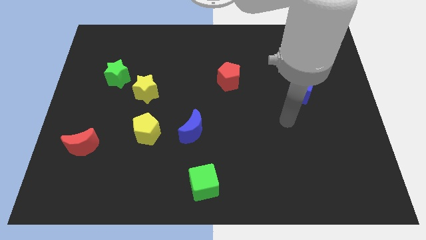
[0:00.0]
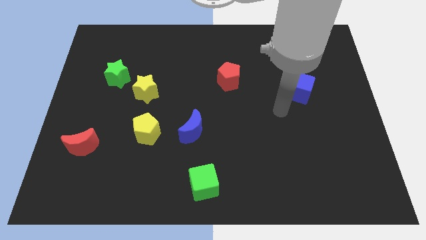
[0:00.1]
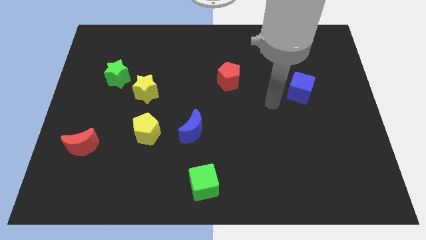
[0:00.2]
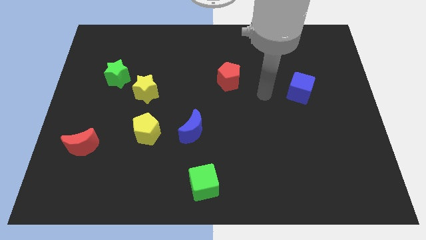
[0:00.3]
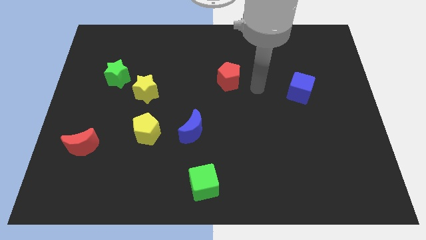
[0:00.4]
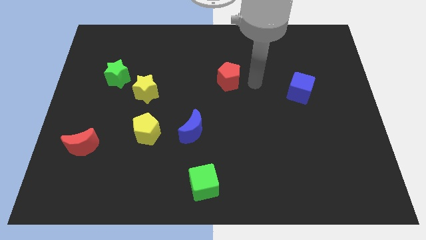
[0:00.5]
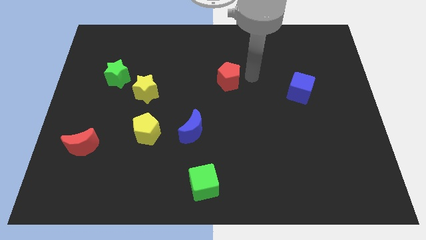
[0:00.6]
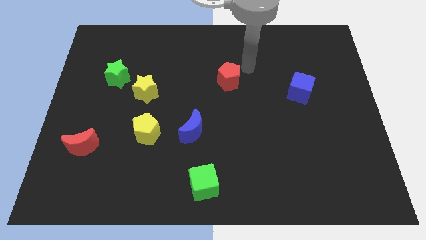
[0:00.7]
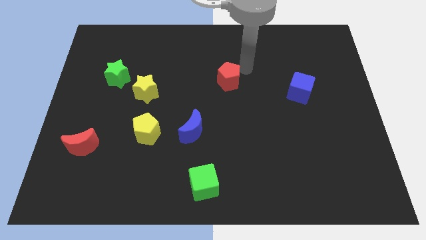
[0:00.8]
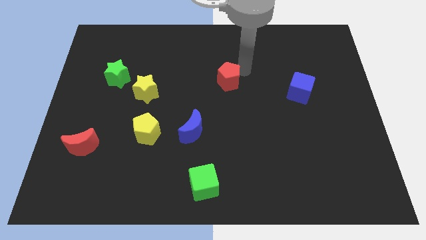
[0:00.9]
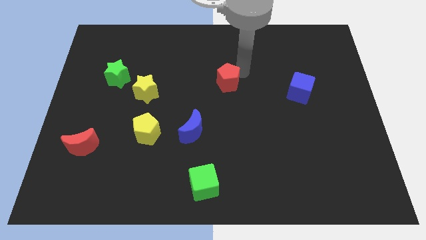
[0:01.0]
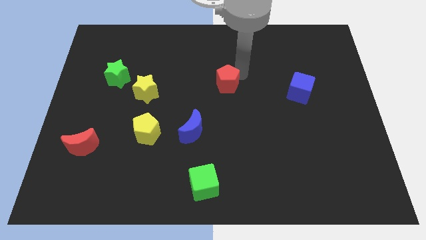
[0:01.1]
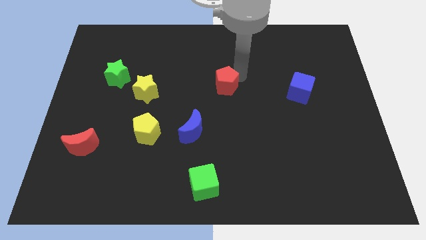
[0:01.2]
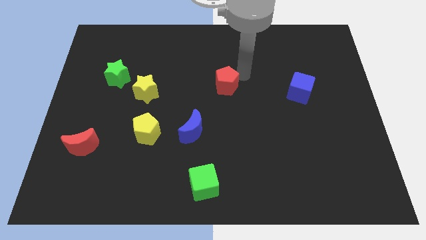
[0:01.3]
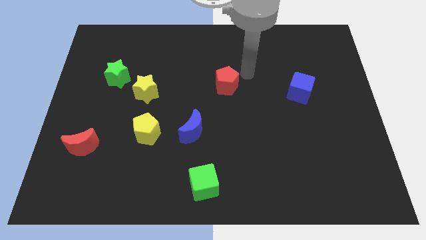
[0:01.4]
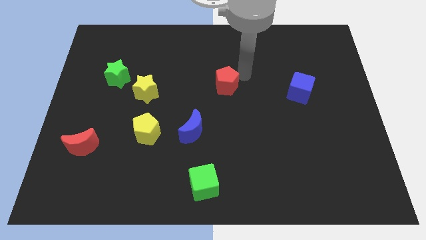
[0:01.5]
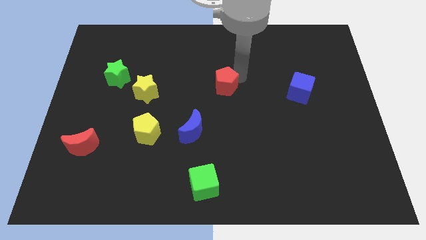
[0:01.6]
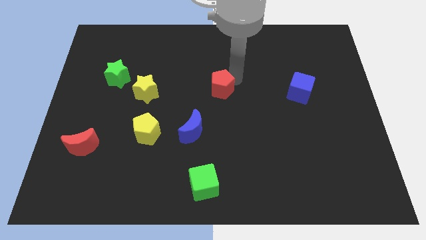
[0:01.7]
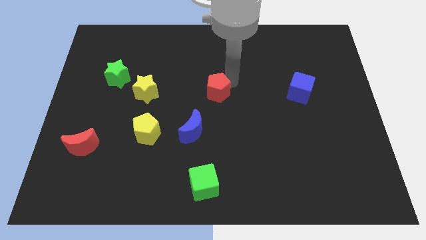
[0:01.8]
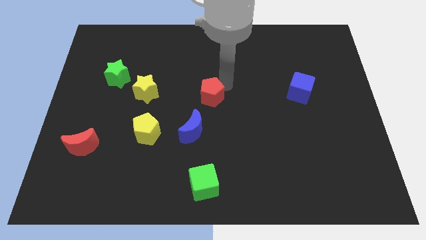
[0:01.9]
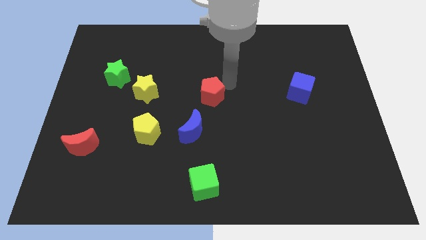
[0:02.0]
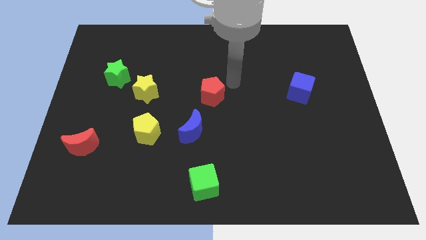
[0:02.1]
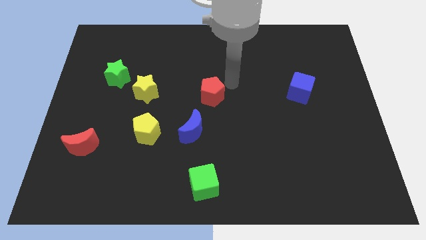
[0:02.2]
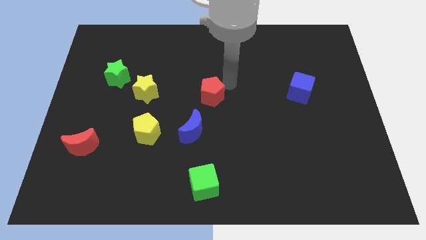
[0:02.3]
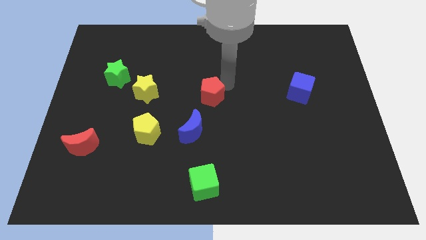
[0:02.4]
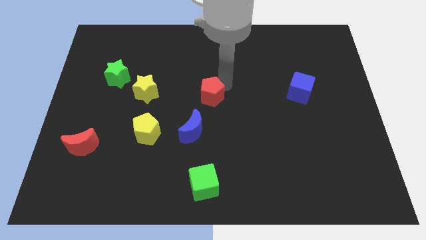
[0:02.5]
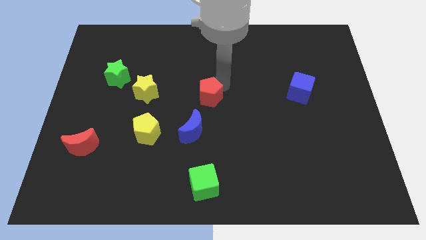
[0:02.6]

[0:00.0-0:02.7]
slightly push the red pentagon downwards and to the left

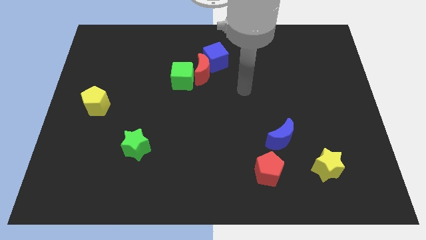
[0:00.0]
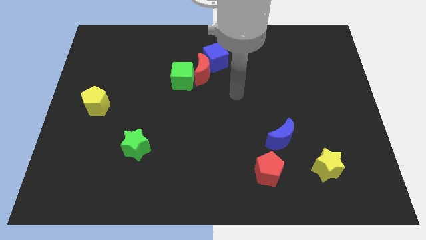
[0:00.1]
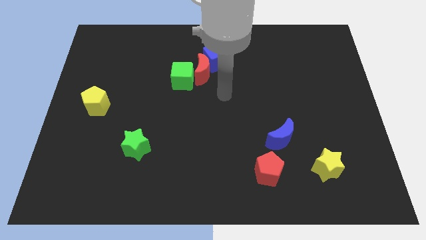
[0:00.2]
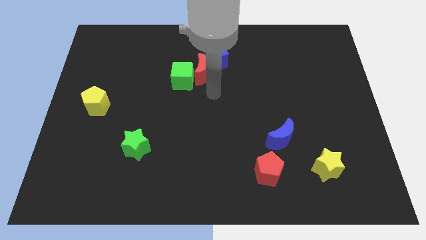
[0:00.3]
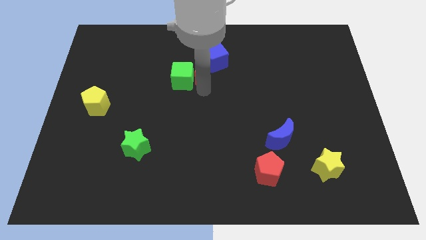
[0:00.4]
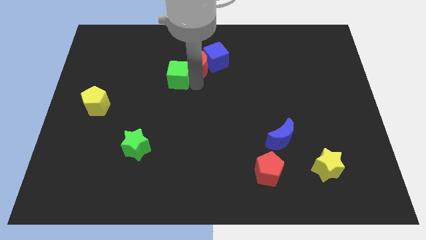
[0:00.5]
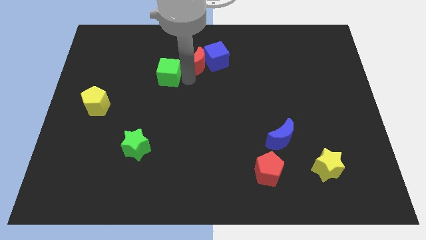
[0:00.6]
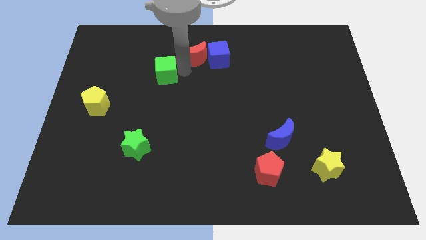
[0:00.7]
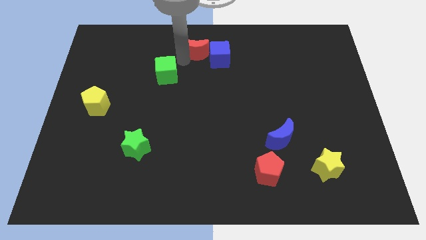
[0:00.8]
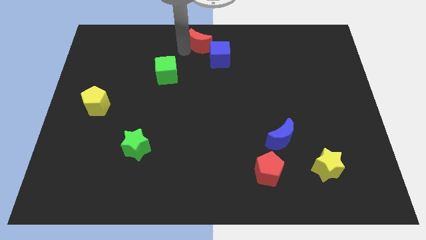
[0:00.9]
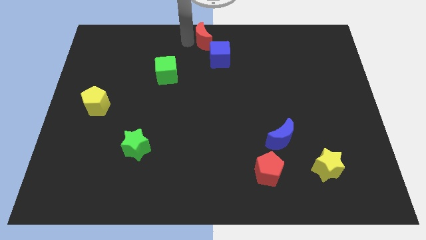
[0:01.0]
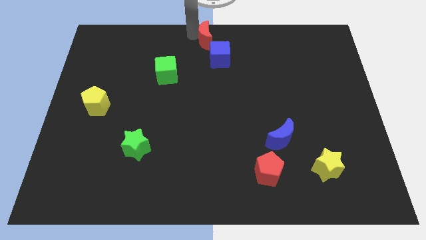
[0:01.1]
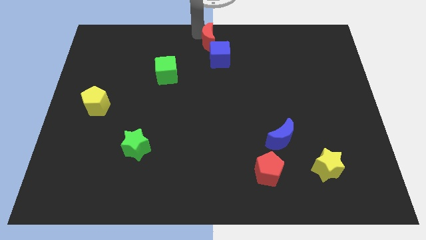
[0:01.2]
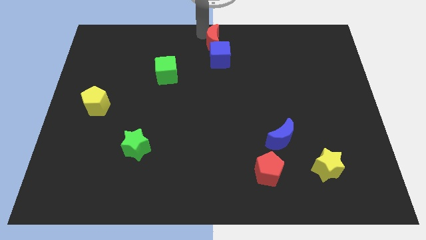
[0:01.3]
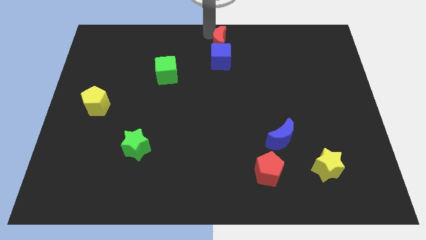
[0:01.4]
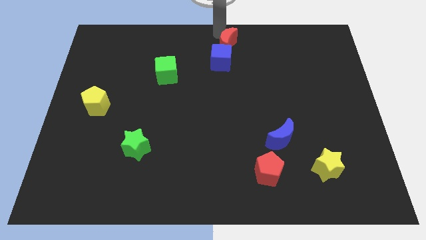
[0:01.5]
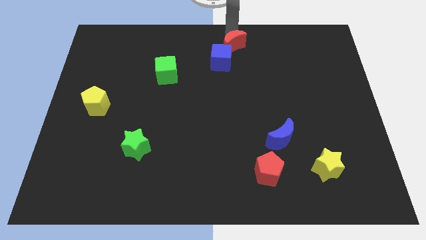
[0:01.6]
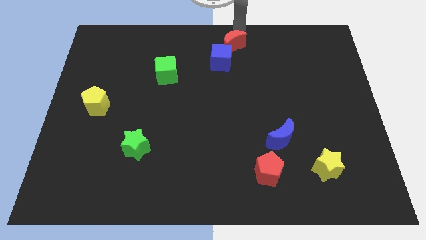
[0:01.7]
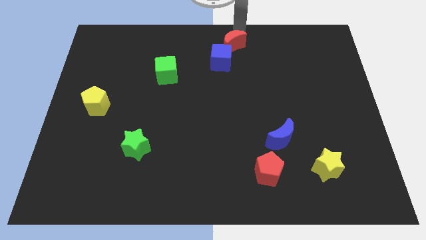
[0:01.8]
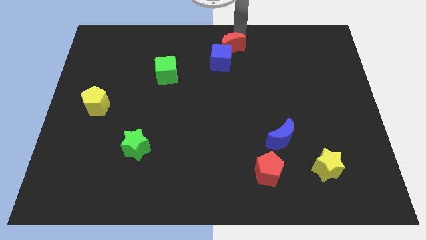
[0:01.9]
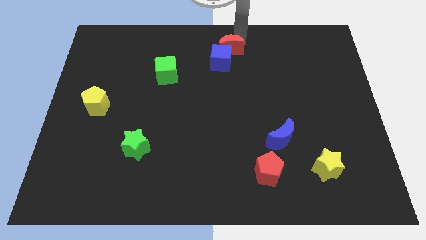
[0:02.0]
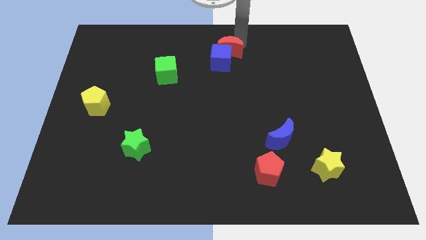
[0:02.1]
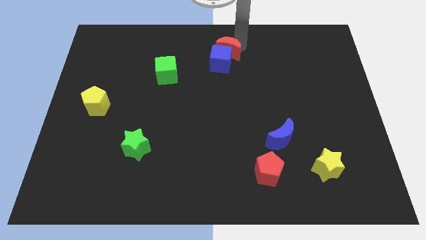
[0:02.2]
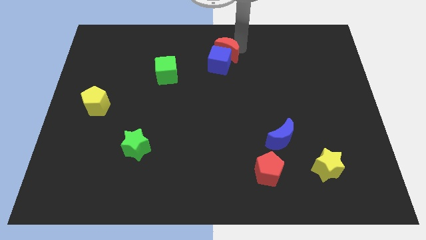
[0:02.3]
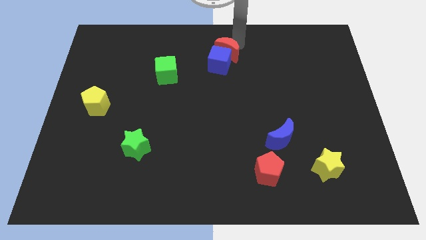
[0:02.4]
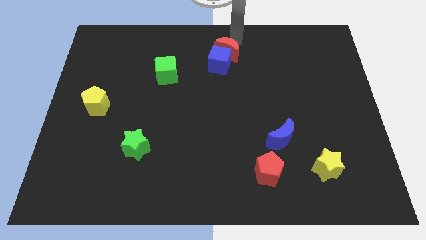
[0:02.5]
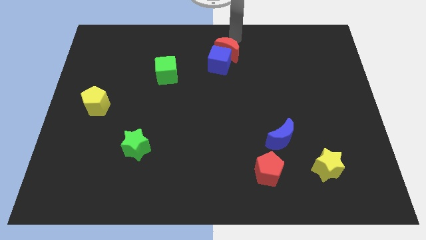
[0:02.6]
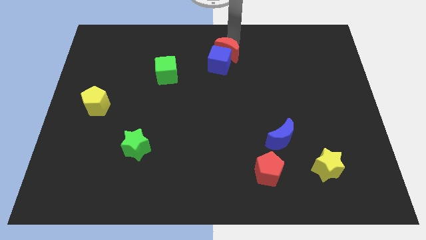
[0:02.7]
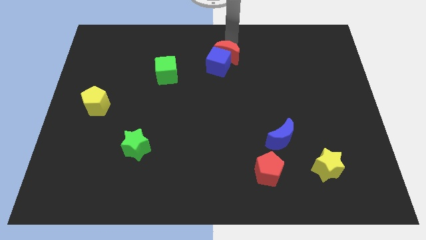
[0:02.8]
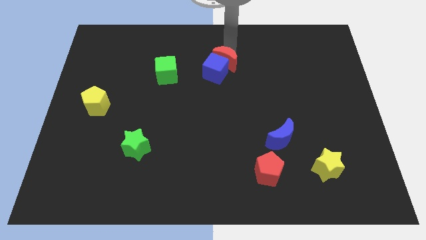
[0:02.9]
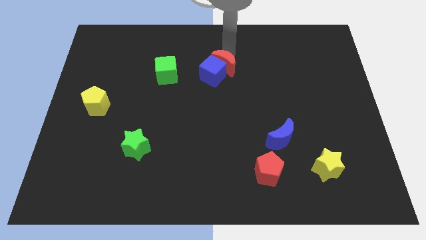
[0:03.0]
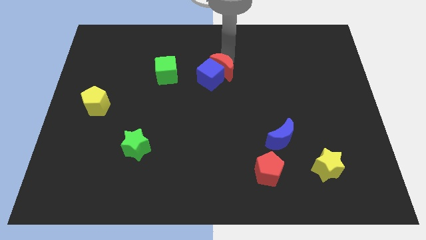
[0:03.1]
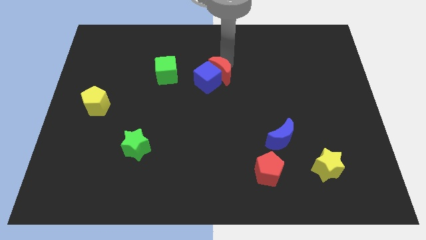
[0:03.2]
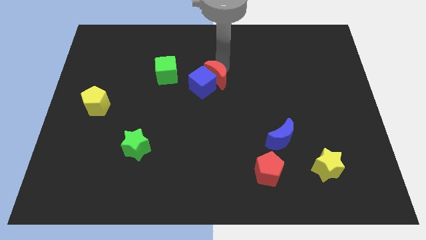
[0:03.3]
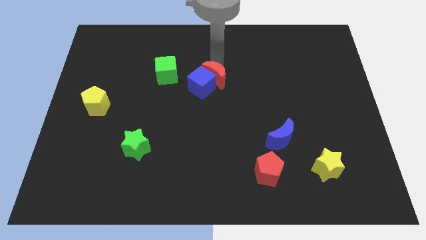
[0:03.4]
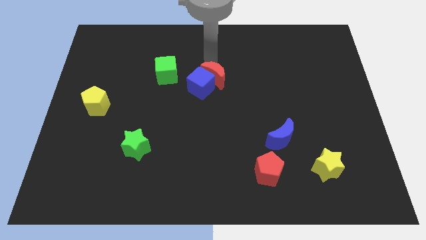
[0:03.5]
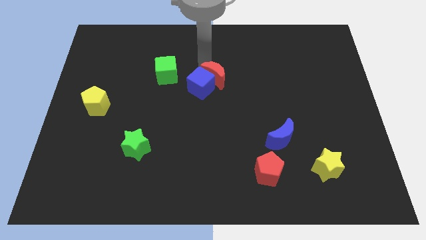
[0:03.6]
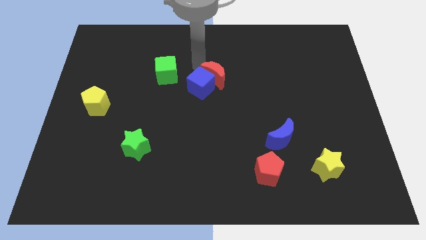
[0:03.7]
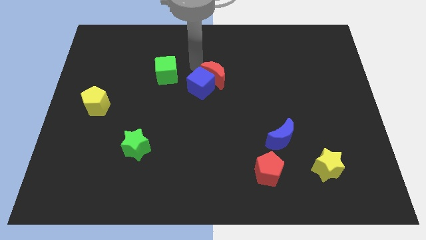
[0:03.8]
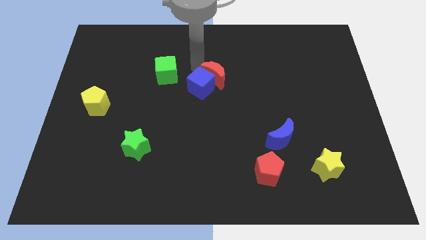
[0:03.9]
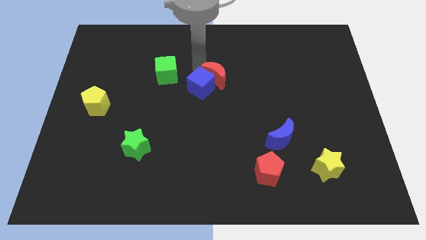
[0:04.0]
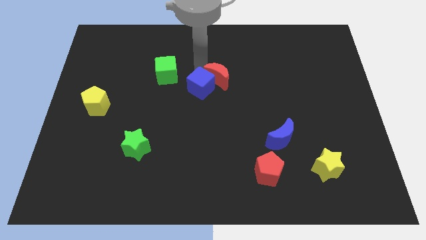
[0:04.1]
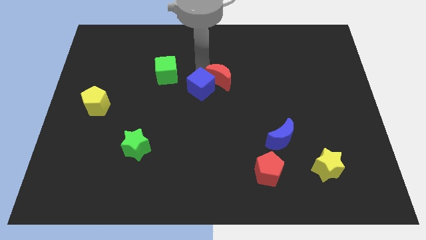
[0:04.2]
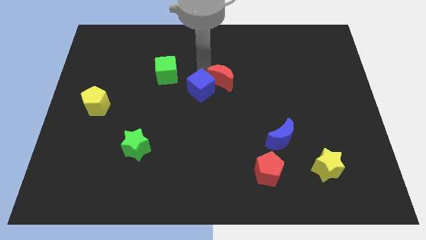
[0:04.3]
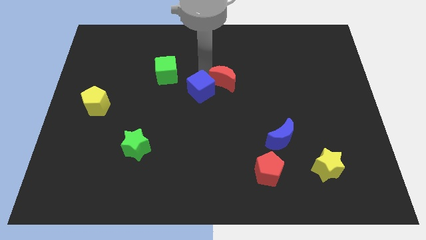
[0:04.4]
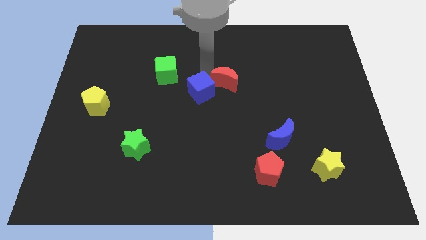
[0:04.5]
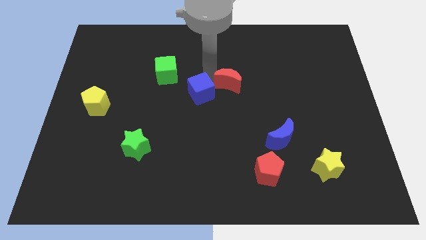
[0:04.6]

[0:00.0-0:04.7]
slightly move the red moon downwards and to the right diagonally

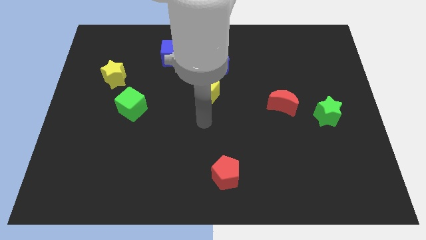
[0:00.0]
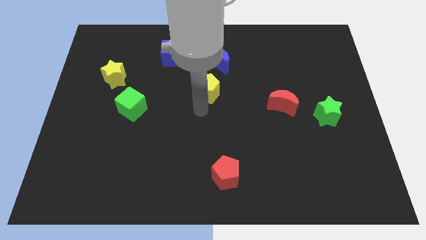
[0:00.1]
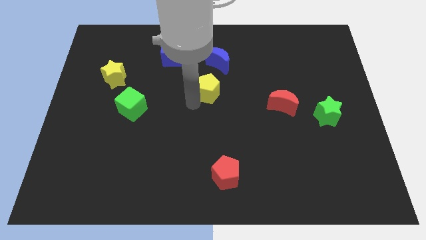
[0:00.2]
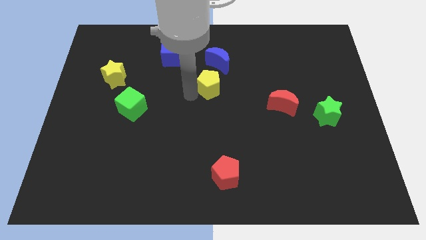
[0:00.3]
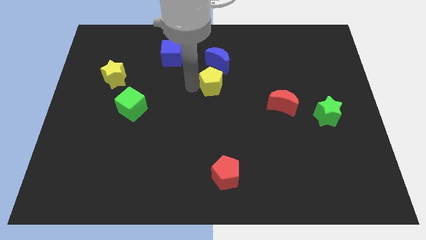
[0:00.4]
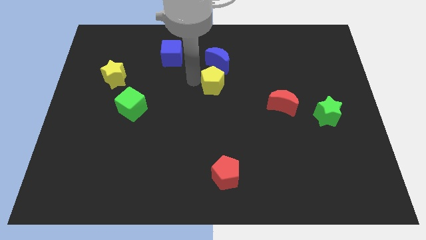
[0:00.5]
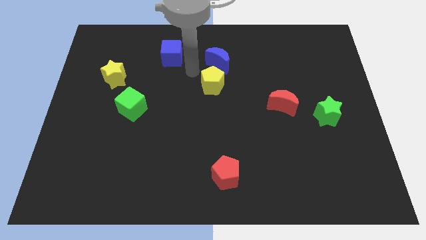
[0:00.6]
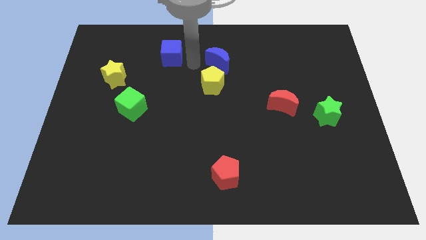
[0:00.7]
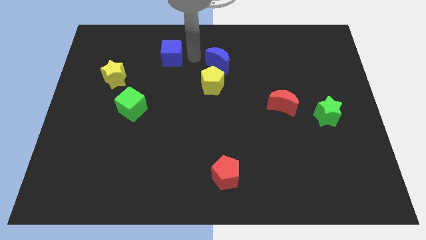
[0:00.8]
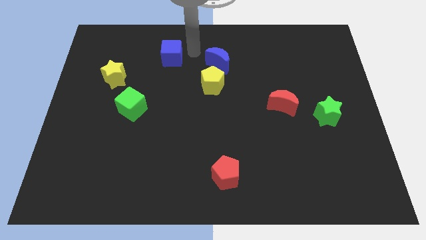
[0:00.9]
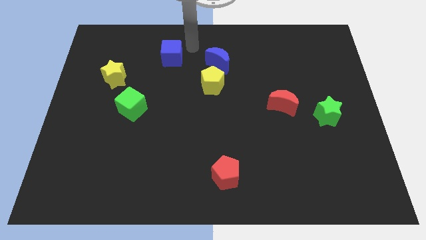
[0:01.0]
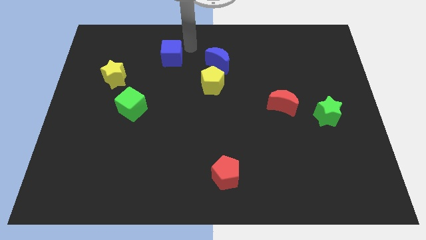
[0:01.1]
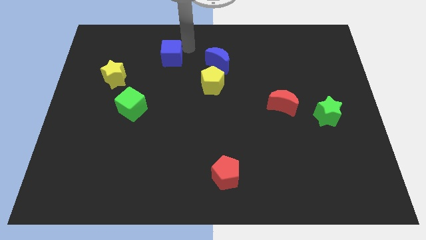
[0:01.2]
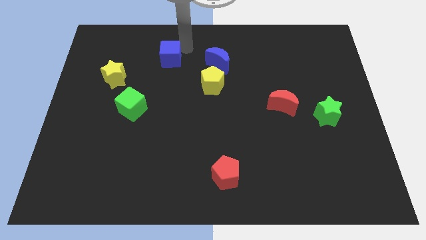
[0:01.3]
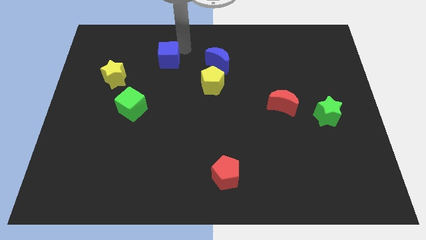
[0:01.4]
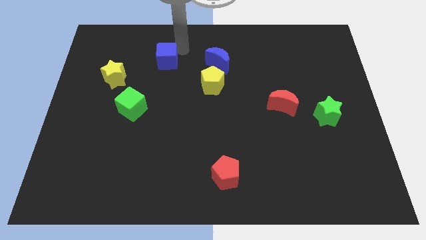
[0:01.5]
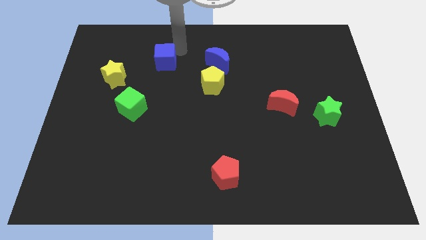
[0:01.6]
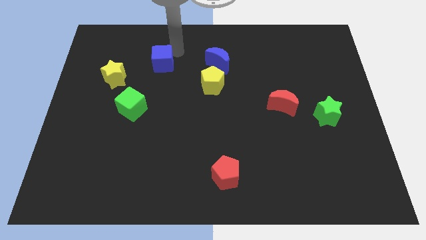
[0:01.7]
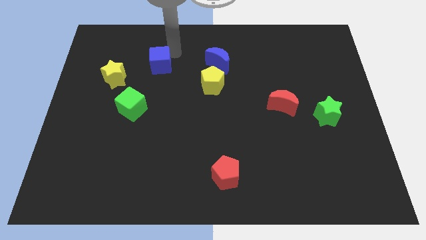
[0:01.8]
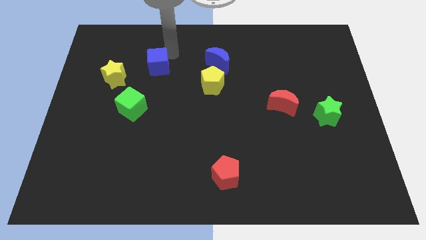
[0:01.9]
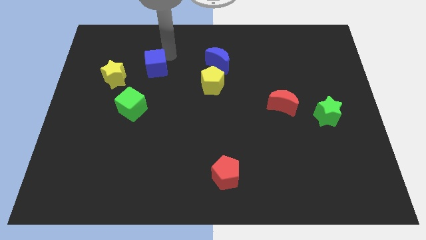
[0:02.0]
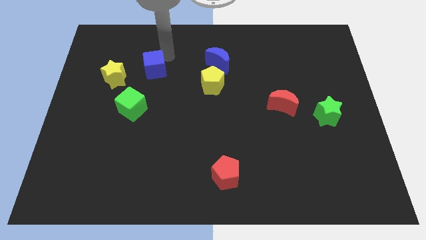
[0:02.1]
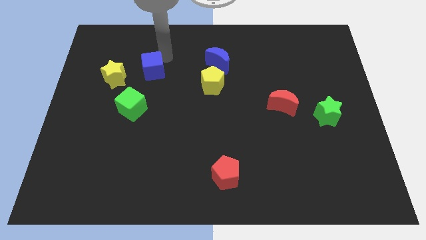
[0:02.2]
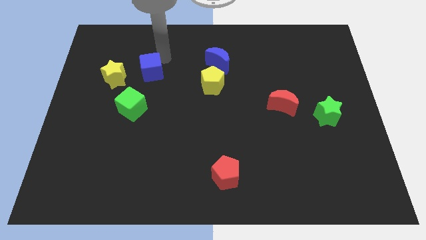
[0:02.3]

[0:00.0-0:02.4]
push the blue cube a bit diagonally down and left
